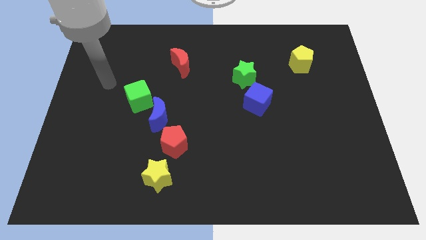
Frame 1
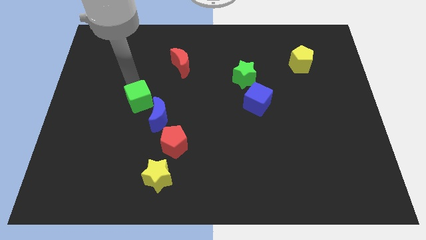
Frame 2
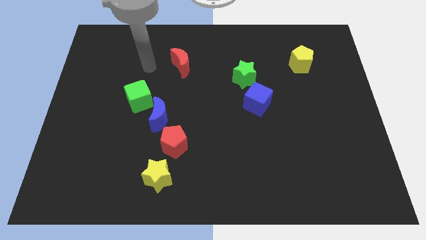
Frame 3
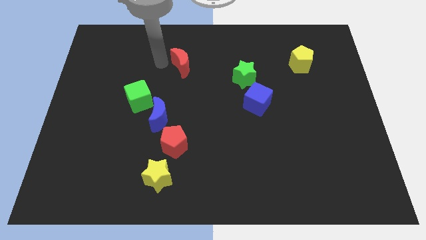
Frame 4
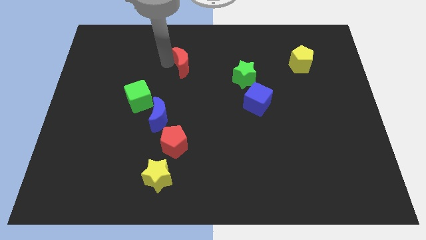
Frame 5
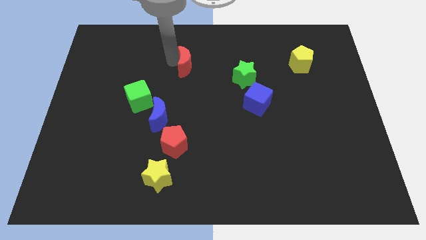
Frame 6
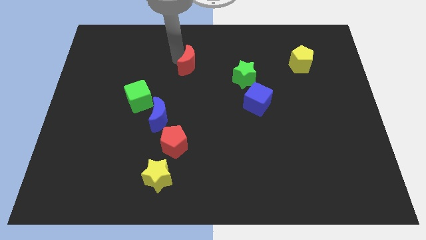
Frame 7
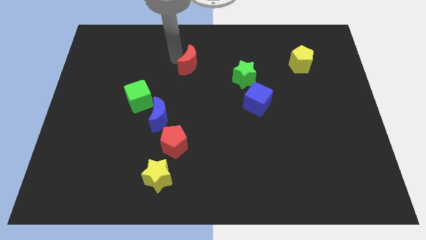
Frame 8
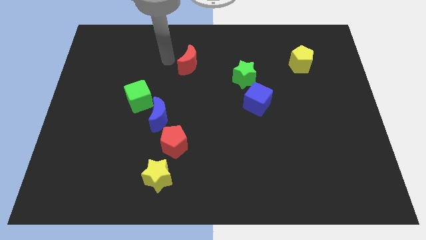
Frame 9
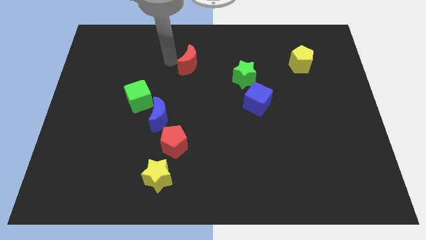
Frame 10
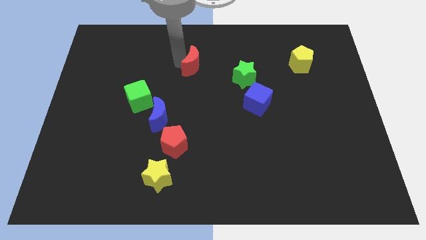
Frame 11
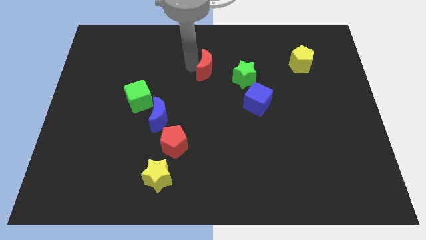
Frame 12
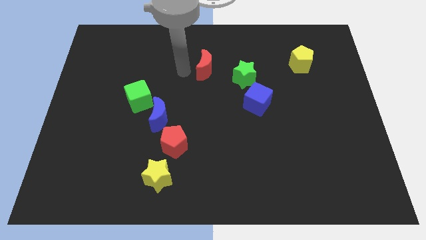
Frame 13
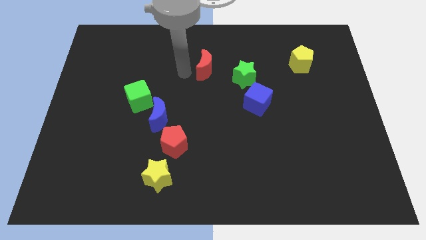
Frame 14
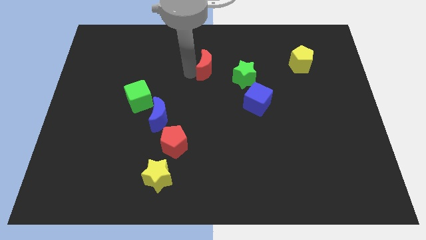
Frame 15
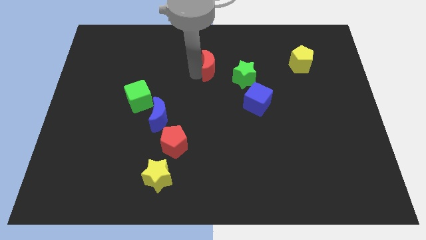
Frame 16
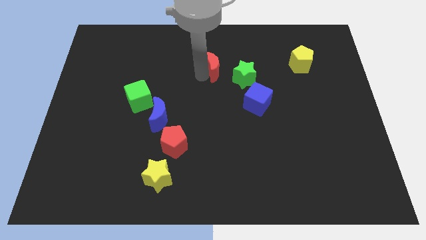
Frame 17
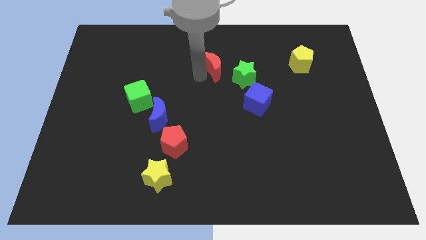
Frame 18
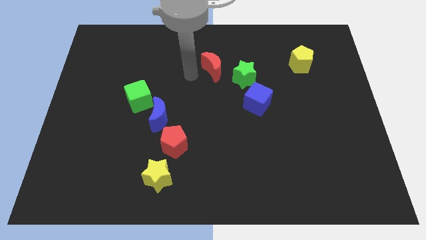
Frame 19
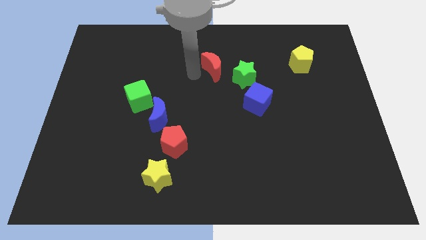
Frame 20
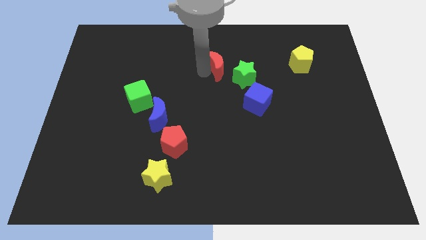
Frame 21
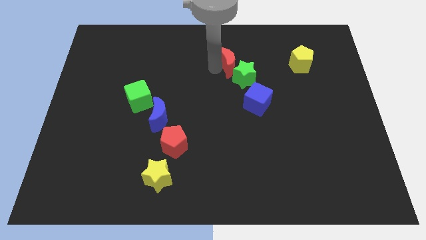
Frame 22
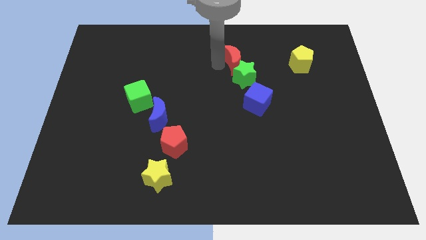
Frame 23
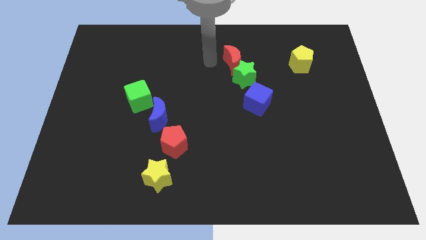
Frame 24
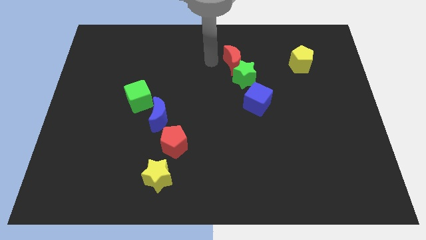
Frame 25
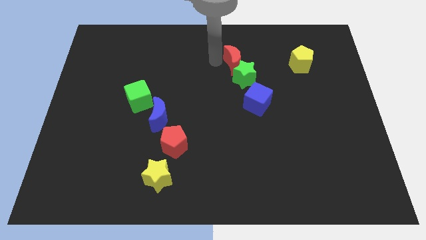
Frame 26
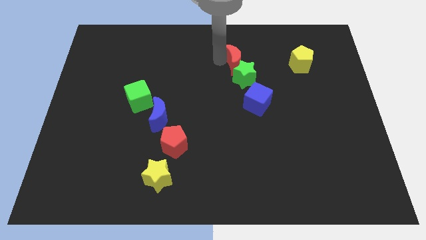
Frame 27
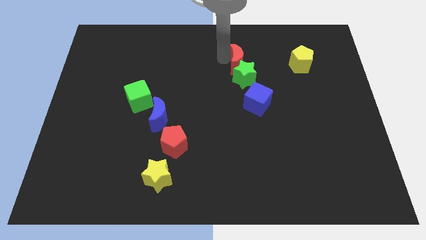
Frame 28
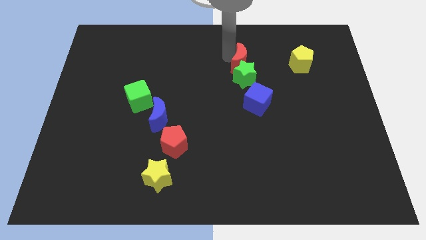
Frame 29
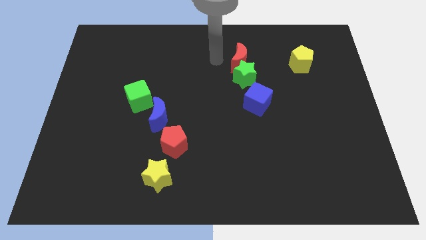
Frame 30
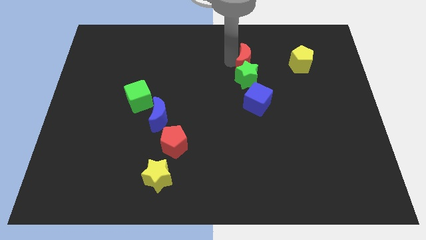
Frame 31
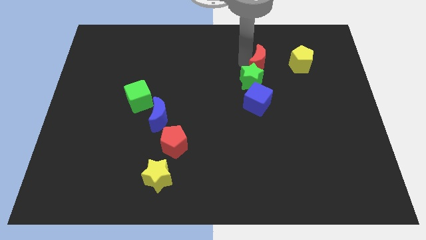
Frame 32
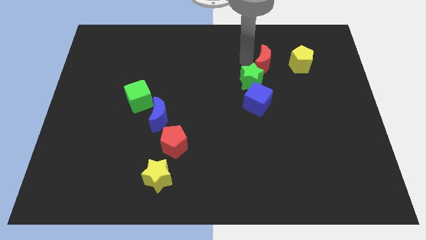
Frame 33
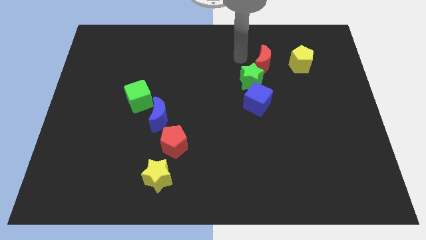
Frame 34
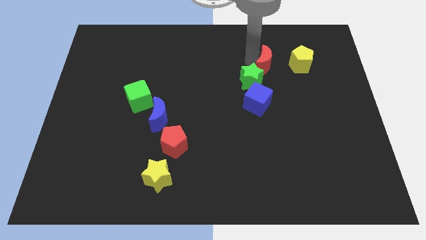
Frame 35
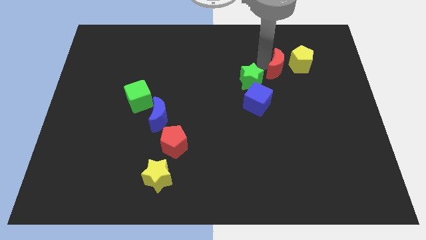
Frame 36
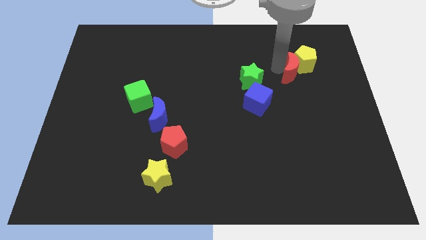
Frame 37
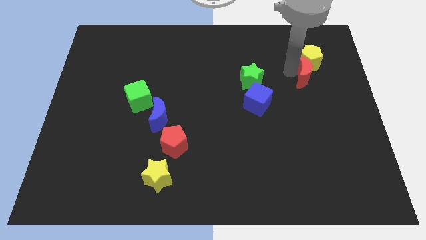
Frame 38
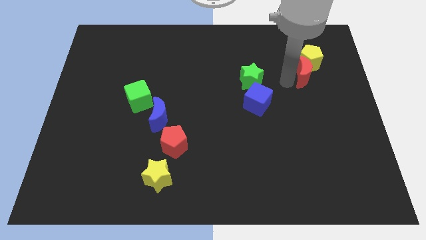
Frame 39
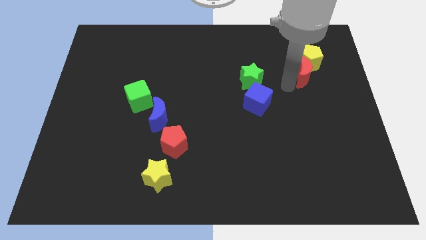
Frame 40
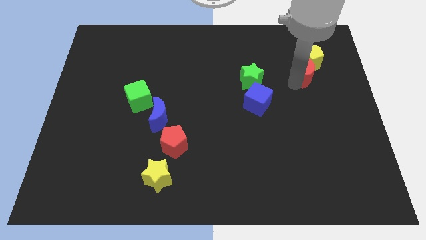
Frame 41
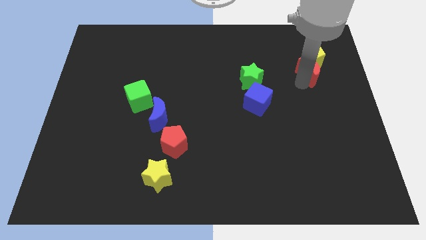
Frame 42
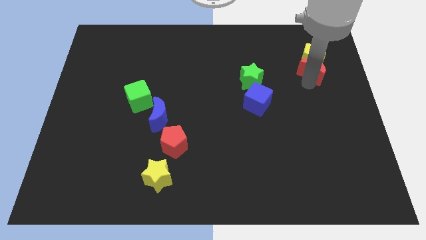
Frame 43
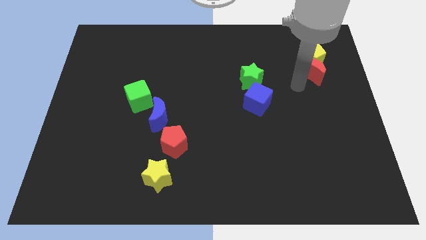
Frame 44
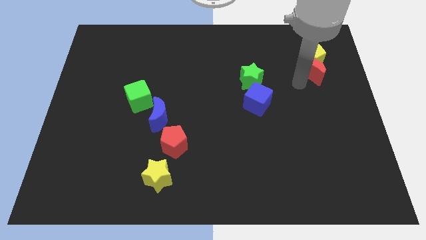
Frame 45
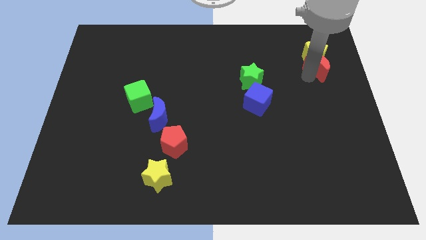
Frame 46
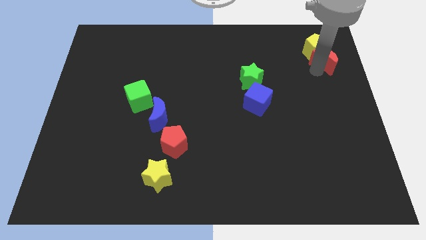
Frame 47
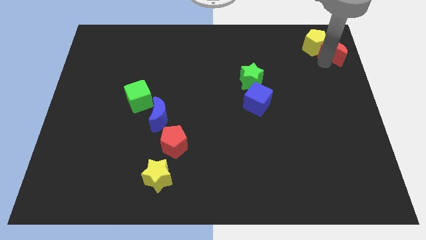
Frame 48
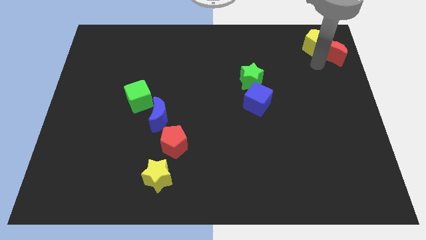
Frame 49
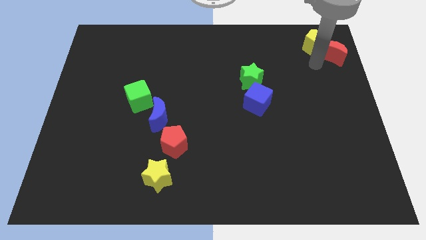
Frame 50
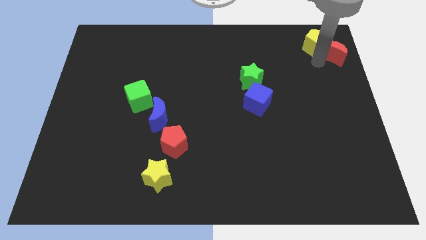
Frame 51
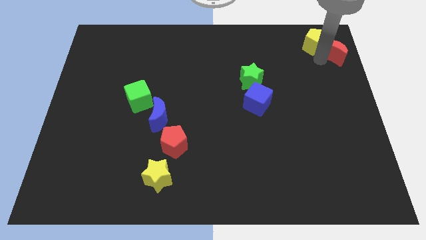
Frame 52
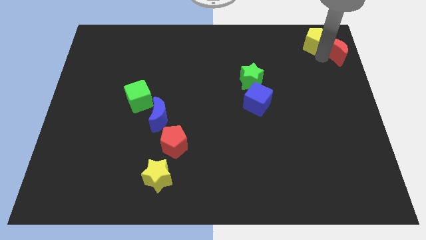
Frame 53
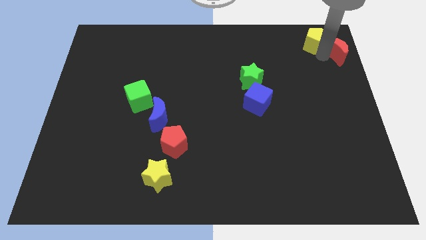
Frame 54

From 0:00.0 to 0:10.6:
put the red moon to the upper right corner

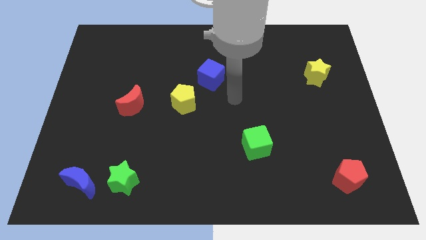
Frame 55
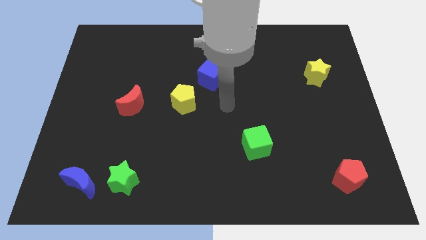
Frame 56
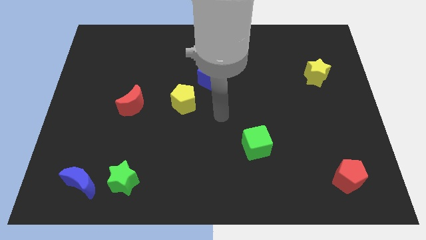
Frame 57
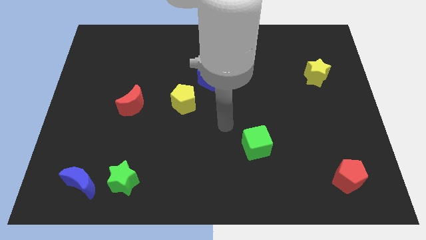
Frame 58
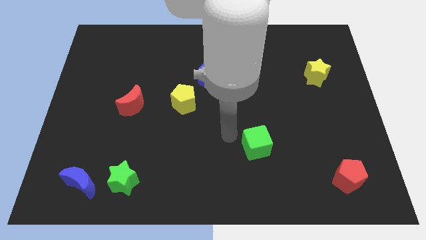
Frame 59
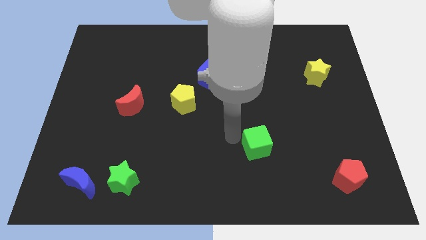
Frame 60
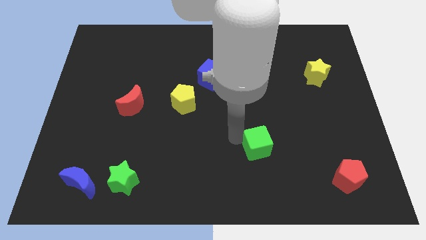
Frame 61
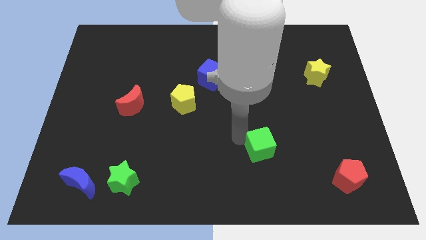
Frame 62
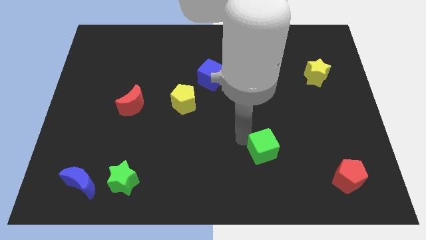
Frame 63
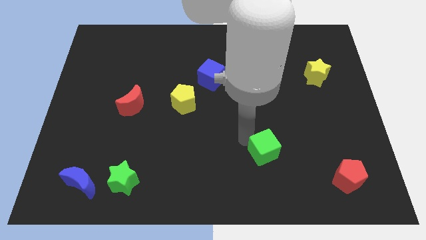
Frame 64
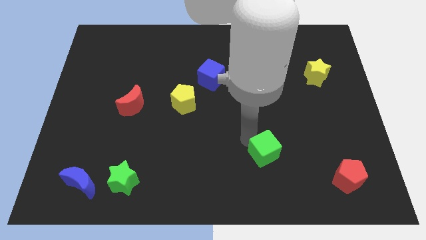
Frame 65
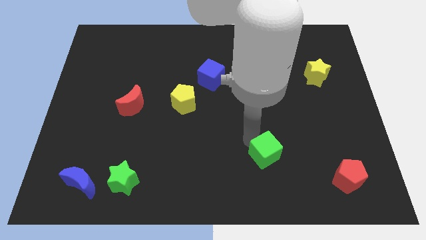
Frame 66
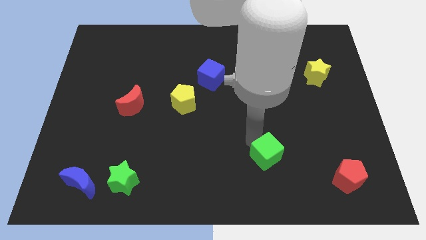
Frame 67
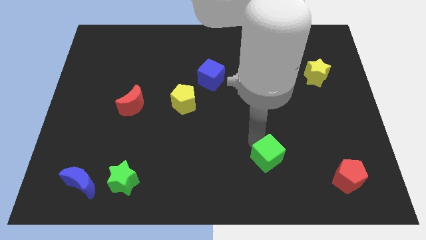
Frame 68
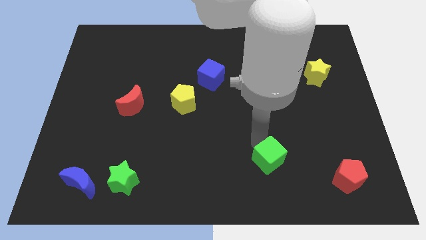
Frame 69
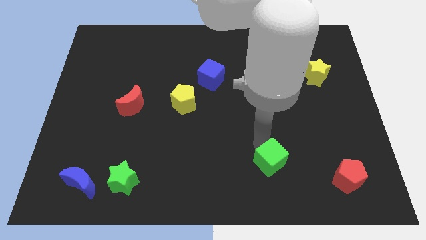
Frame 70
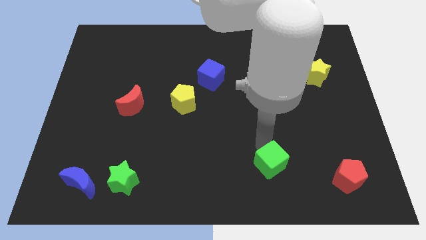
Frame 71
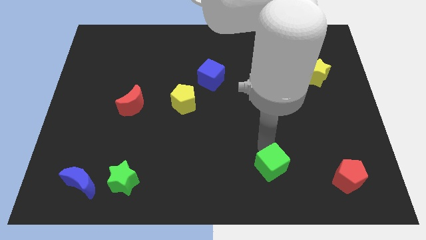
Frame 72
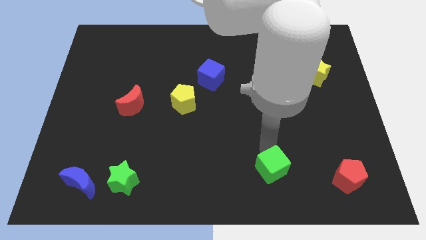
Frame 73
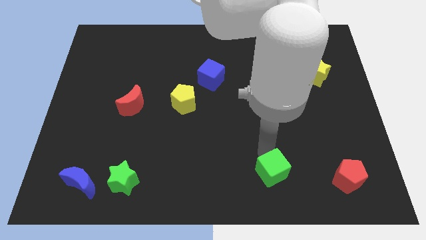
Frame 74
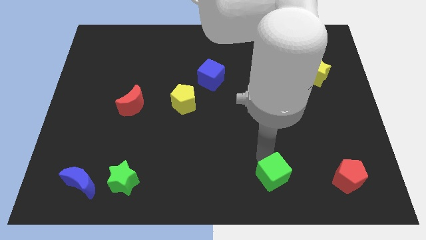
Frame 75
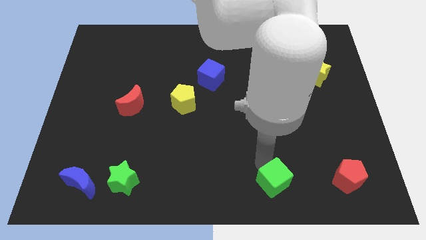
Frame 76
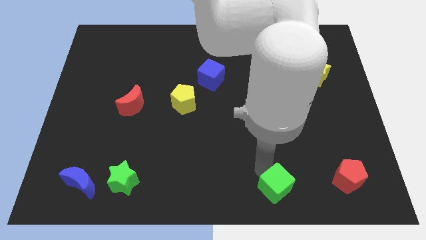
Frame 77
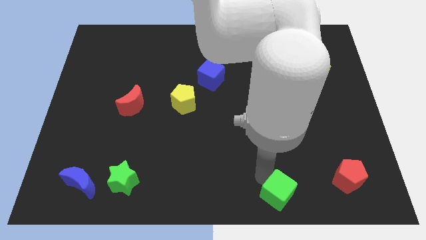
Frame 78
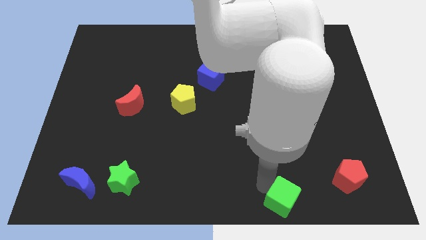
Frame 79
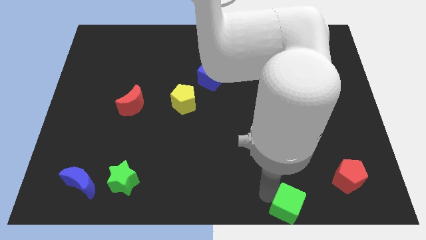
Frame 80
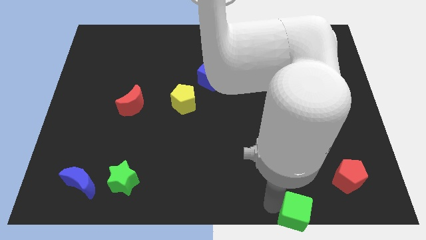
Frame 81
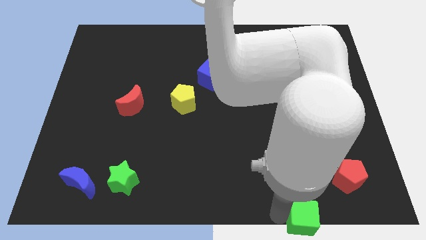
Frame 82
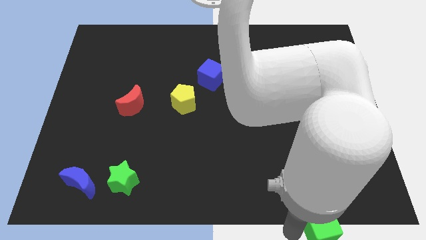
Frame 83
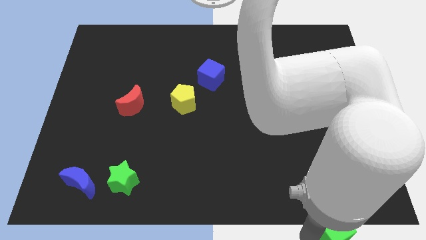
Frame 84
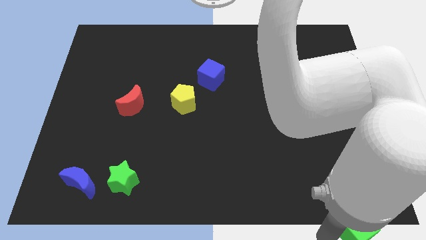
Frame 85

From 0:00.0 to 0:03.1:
put the green cube to the bottom right
